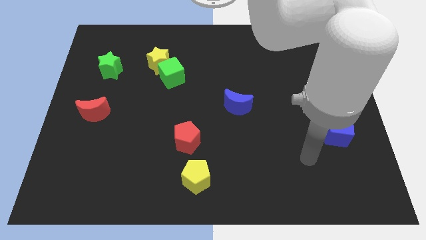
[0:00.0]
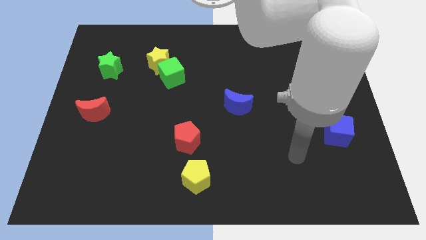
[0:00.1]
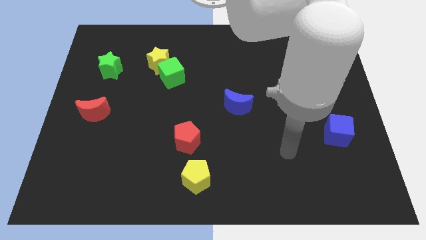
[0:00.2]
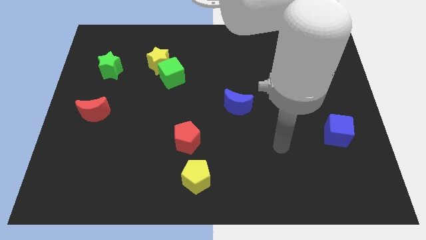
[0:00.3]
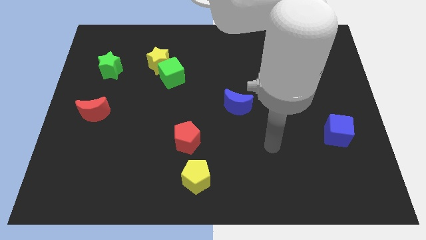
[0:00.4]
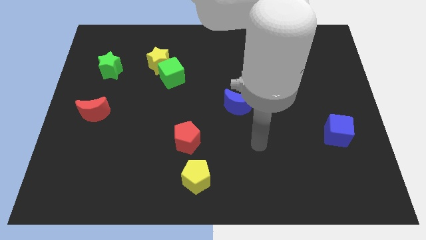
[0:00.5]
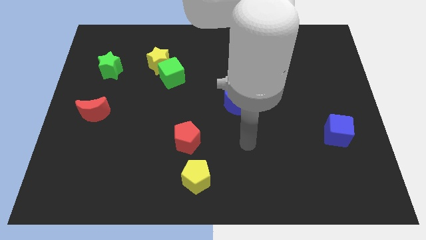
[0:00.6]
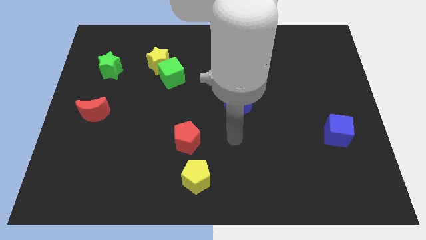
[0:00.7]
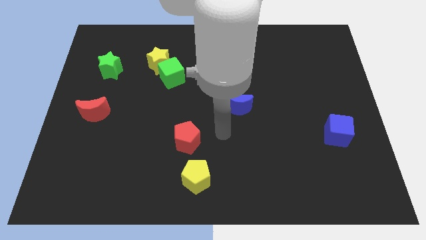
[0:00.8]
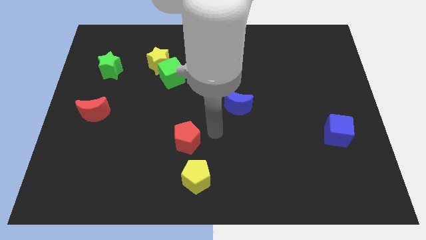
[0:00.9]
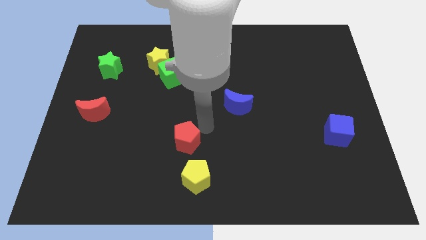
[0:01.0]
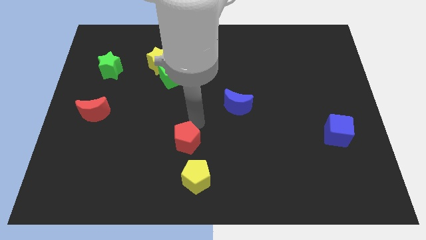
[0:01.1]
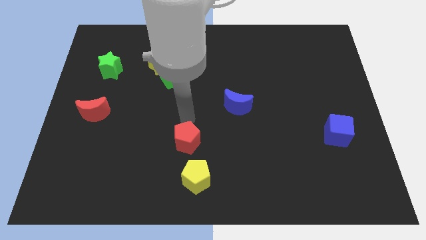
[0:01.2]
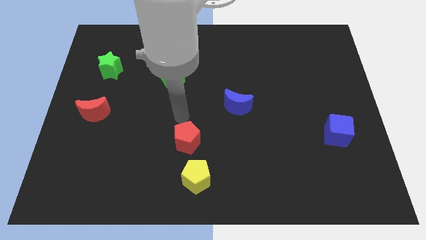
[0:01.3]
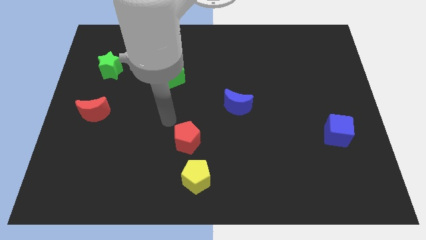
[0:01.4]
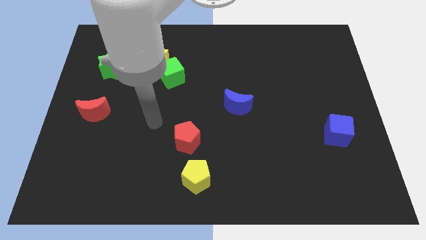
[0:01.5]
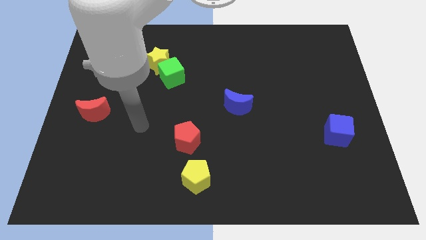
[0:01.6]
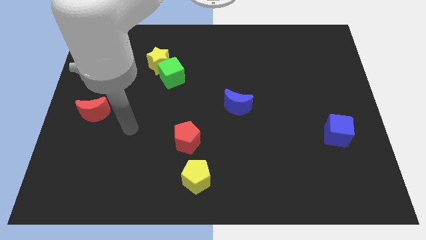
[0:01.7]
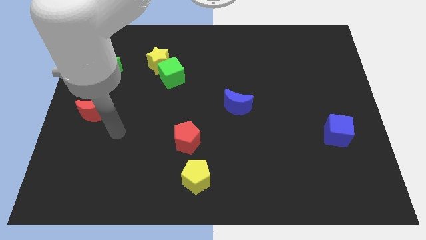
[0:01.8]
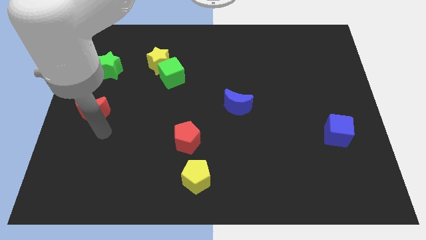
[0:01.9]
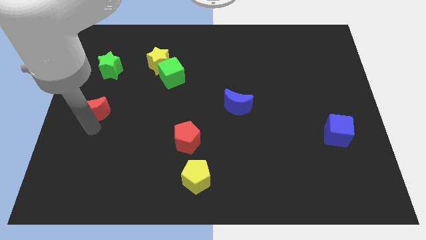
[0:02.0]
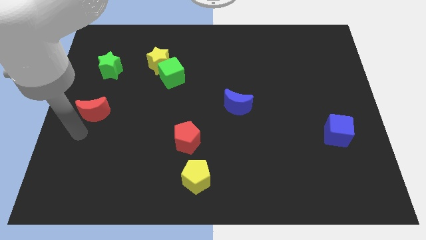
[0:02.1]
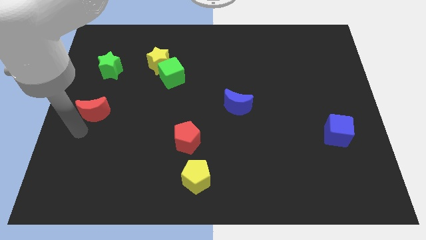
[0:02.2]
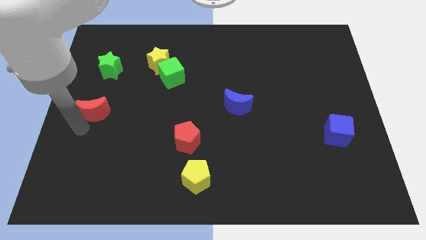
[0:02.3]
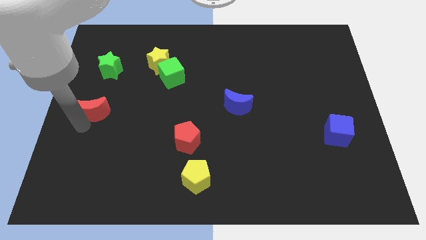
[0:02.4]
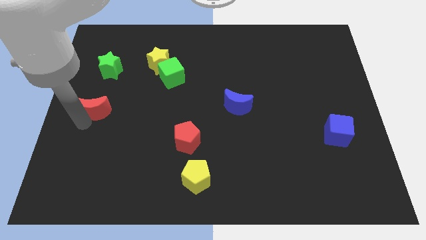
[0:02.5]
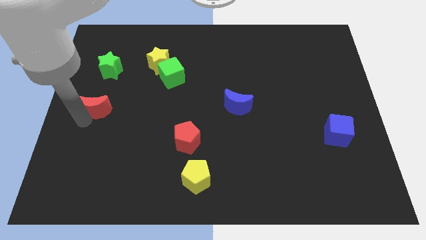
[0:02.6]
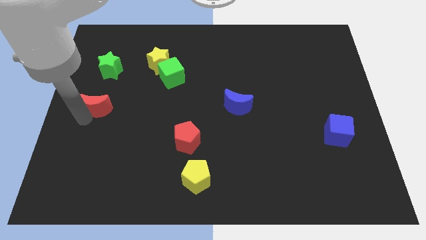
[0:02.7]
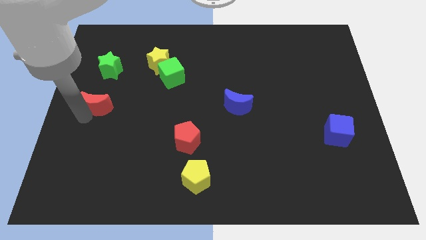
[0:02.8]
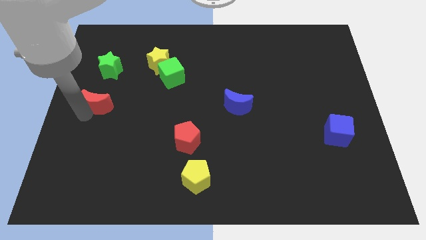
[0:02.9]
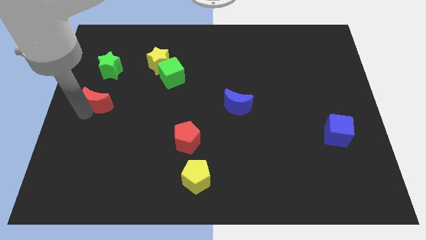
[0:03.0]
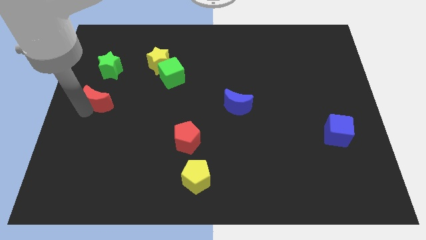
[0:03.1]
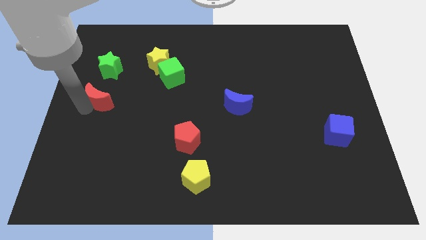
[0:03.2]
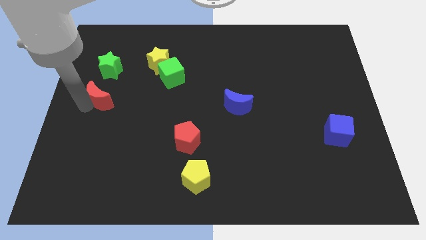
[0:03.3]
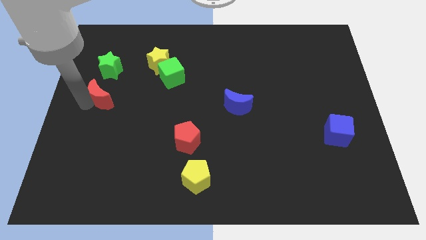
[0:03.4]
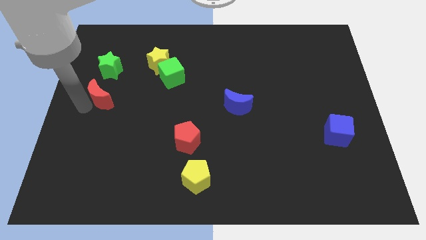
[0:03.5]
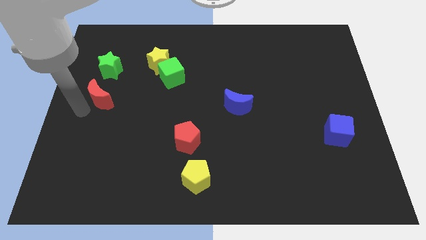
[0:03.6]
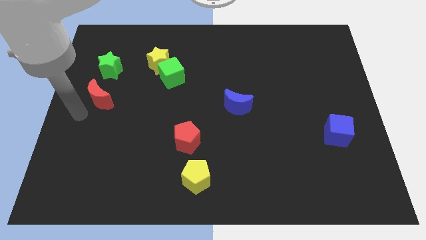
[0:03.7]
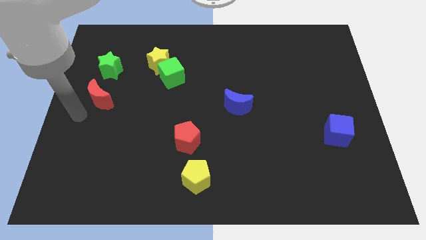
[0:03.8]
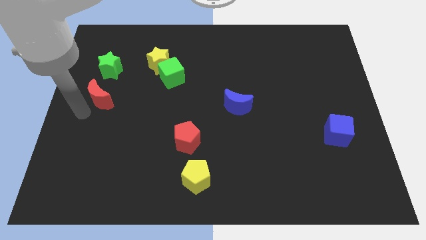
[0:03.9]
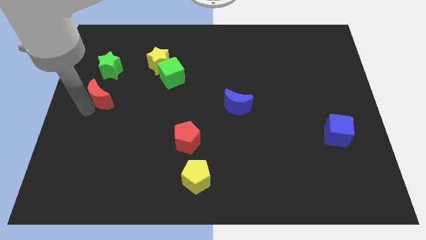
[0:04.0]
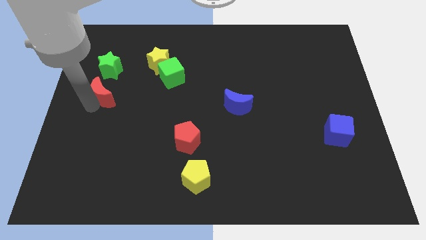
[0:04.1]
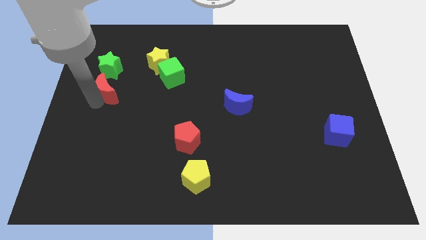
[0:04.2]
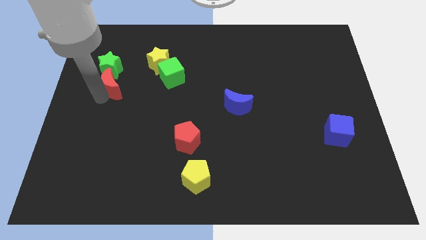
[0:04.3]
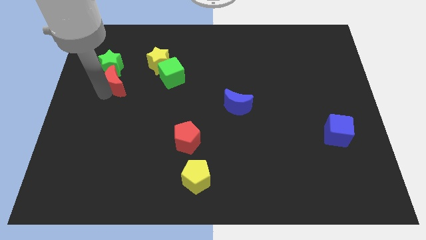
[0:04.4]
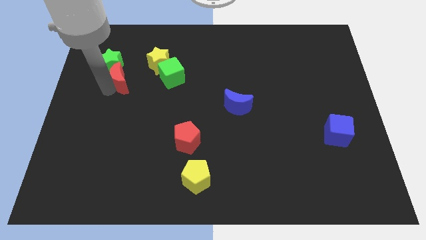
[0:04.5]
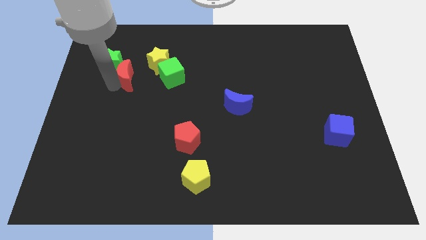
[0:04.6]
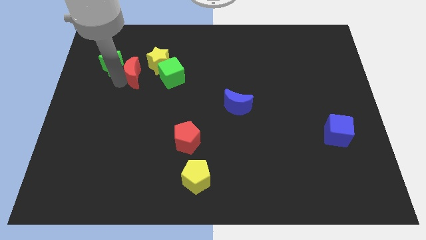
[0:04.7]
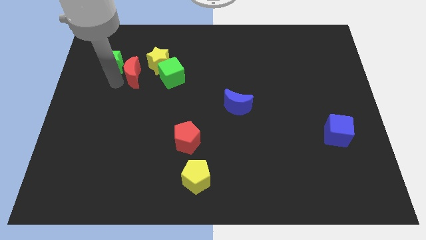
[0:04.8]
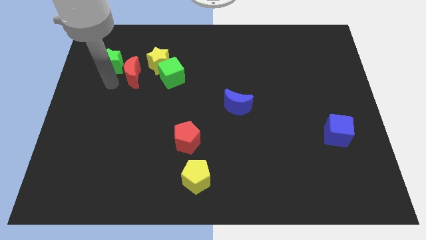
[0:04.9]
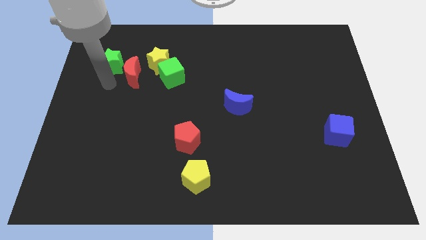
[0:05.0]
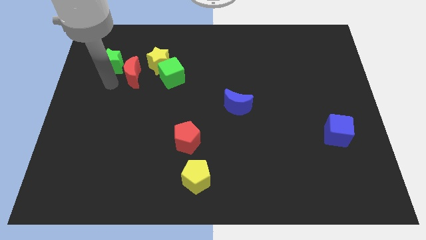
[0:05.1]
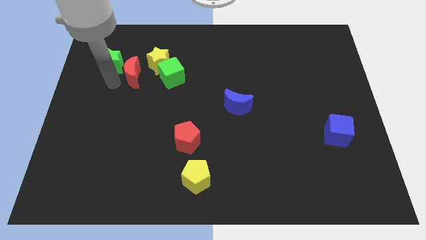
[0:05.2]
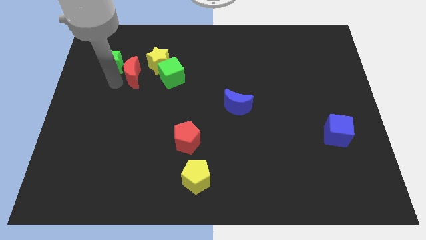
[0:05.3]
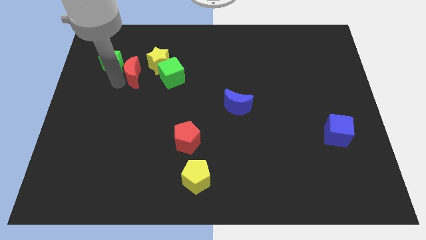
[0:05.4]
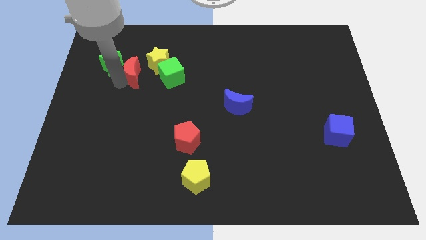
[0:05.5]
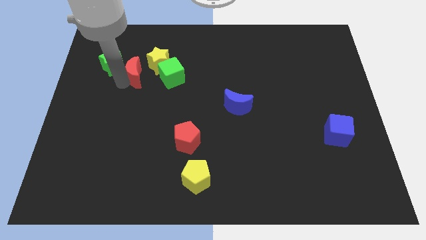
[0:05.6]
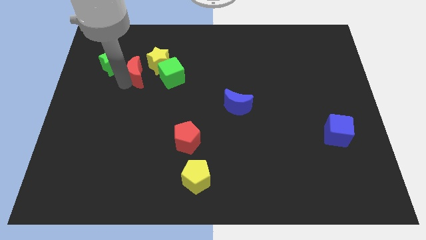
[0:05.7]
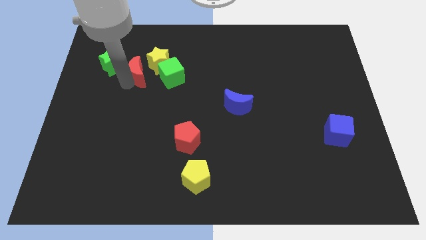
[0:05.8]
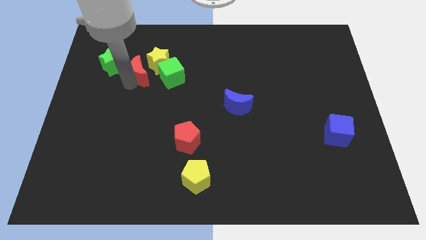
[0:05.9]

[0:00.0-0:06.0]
put the red moon to the yellow star

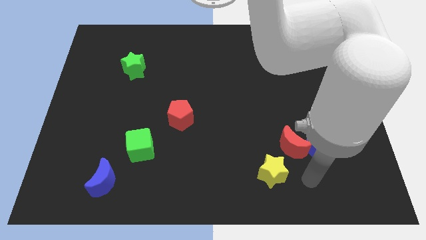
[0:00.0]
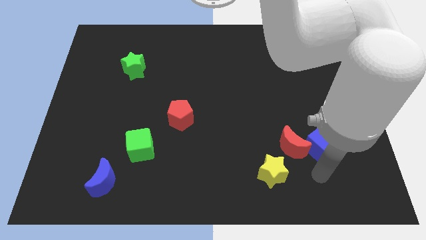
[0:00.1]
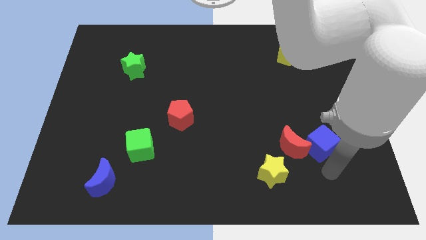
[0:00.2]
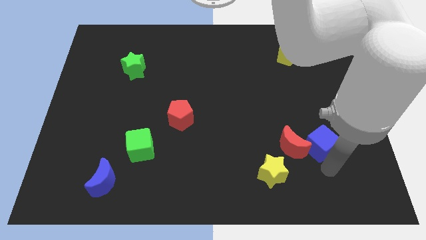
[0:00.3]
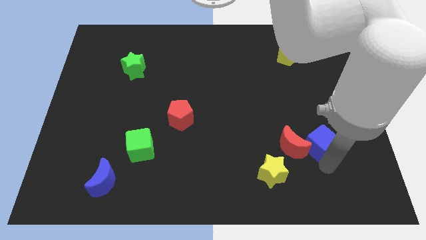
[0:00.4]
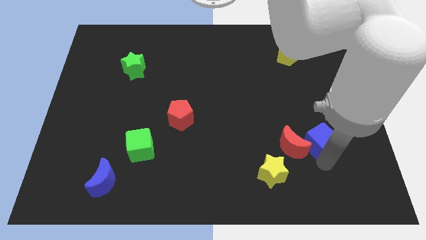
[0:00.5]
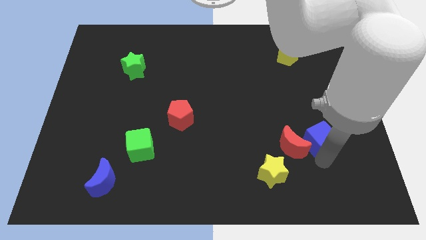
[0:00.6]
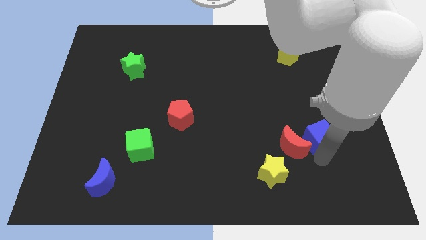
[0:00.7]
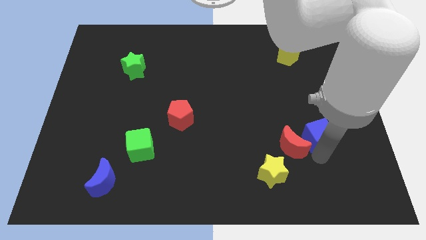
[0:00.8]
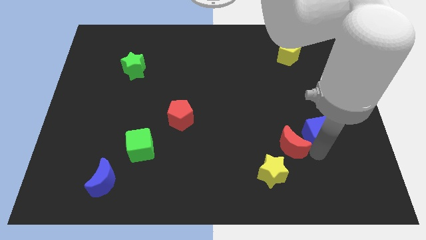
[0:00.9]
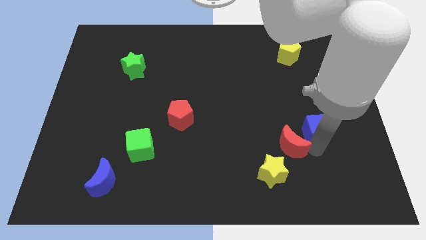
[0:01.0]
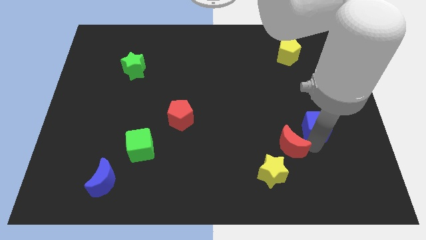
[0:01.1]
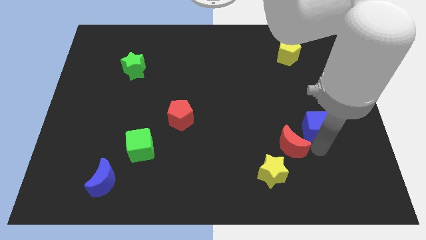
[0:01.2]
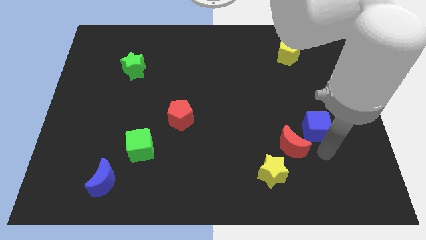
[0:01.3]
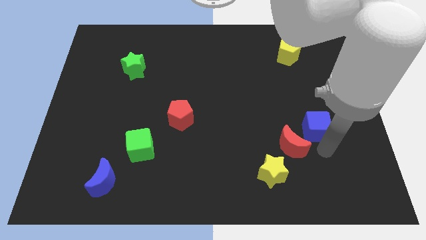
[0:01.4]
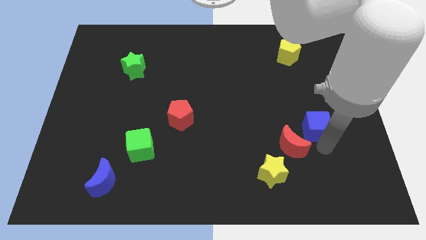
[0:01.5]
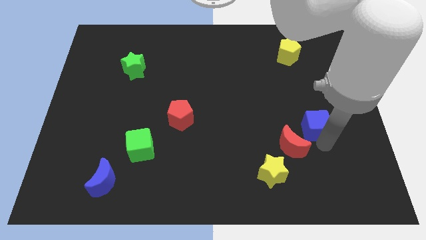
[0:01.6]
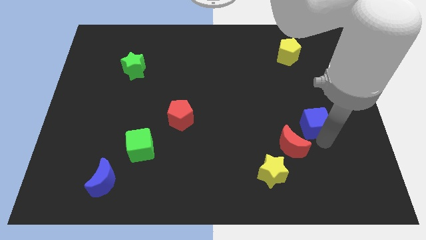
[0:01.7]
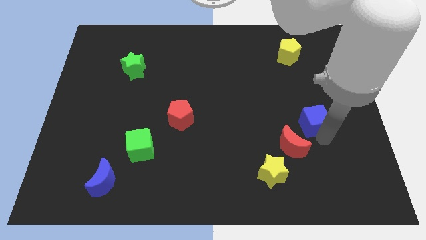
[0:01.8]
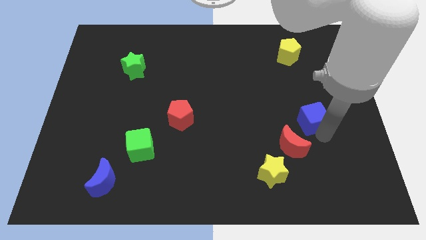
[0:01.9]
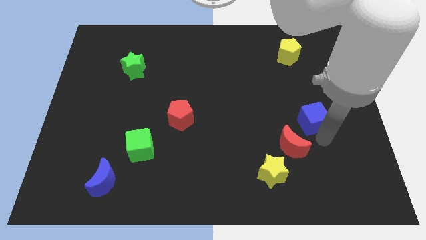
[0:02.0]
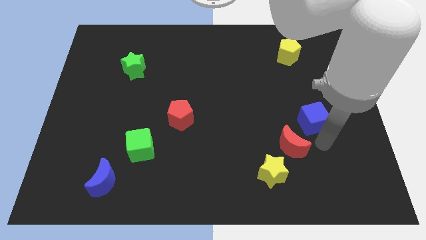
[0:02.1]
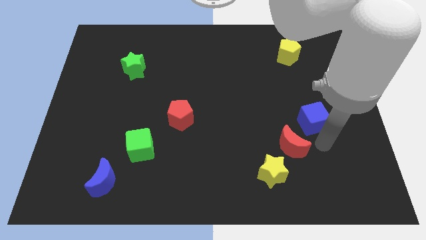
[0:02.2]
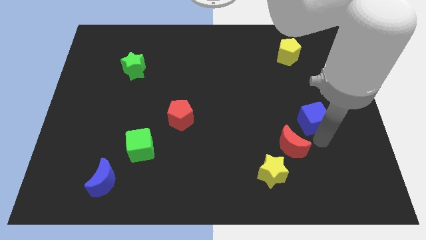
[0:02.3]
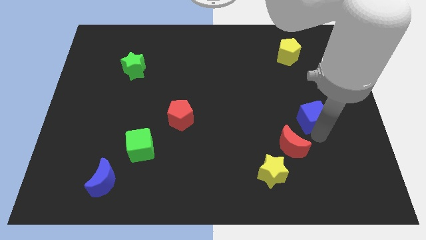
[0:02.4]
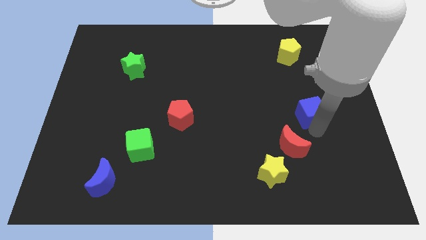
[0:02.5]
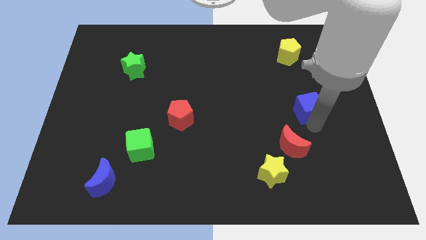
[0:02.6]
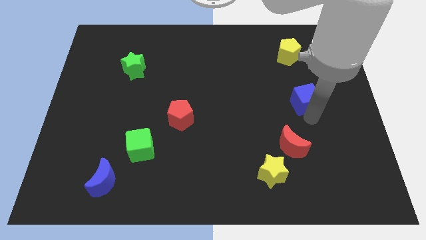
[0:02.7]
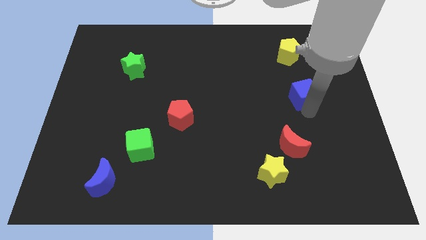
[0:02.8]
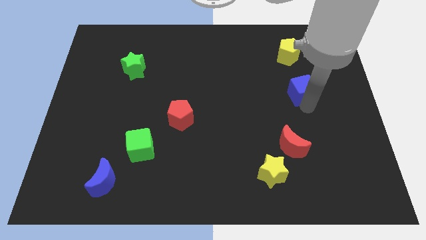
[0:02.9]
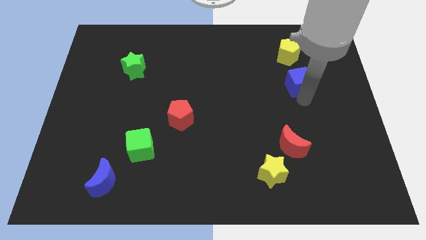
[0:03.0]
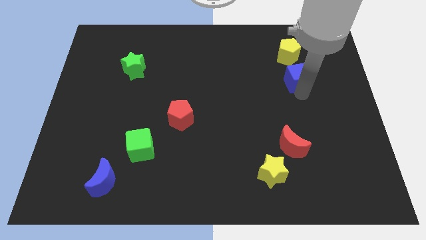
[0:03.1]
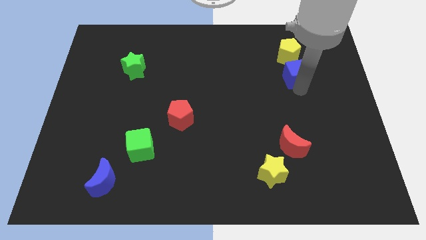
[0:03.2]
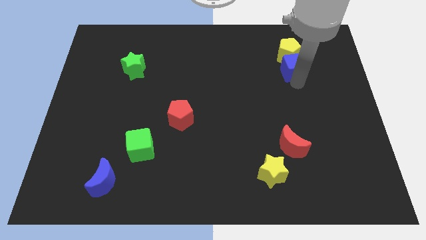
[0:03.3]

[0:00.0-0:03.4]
slide the blue cube towards the yellow pentagon
